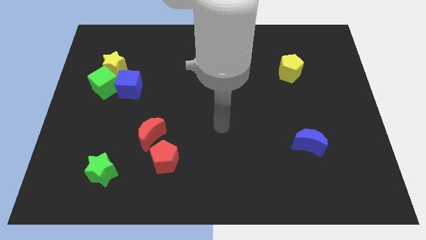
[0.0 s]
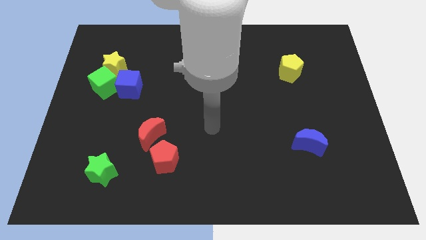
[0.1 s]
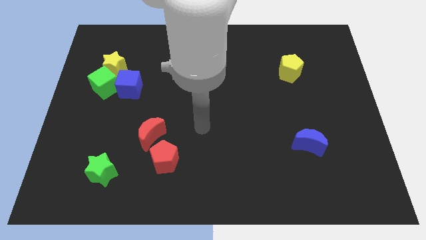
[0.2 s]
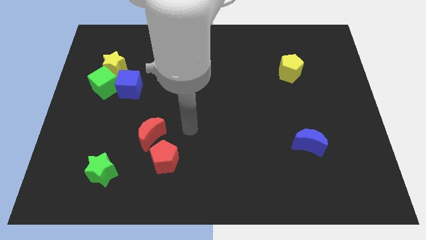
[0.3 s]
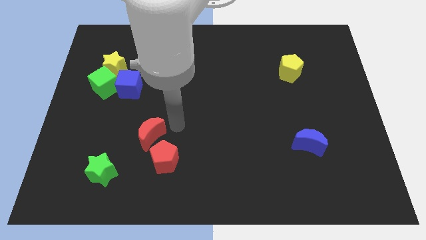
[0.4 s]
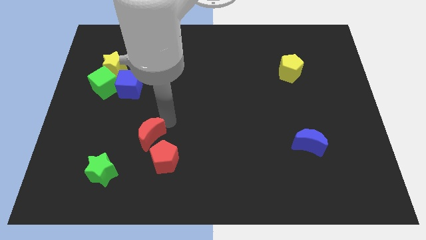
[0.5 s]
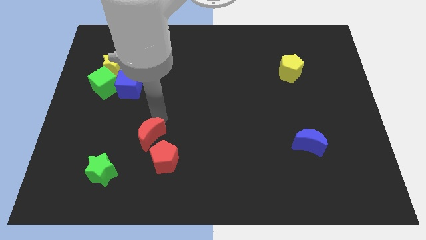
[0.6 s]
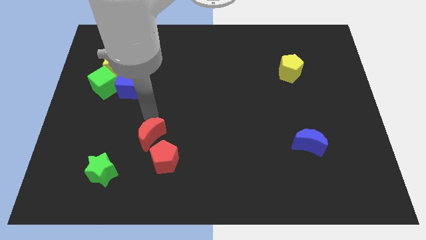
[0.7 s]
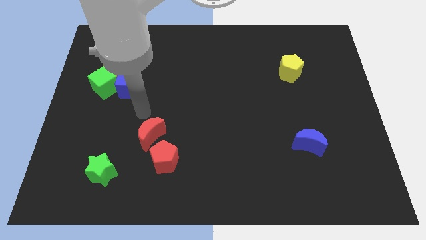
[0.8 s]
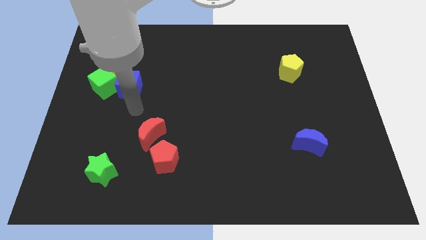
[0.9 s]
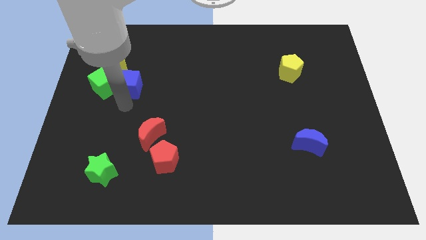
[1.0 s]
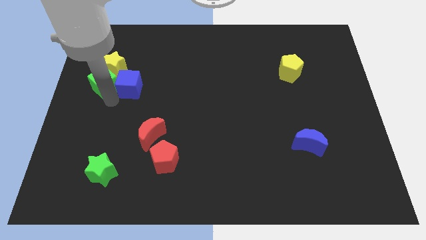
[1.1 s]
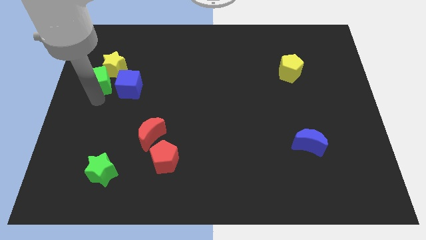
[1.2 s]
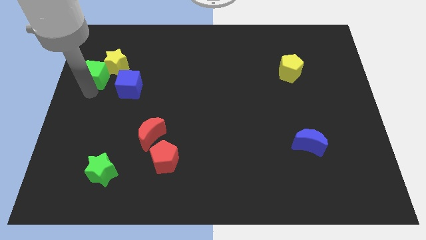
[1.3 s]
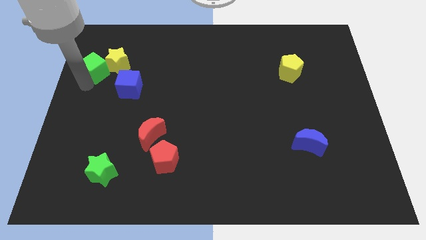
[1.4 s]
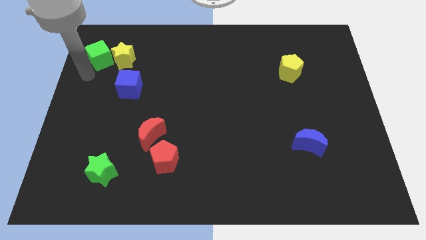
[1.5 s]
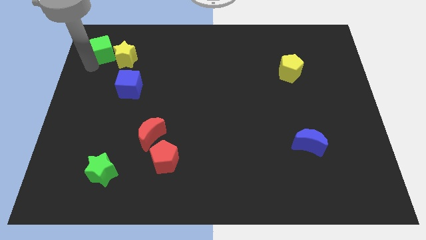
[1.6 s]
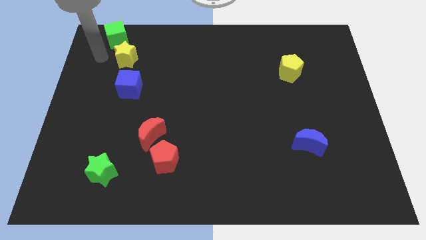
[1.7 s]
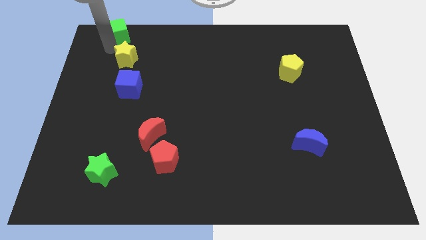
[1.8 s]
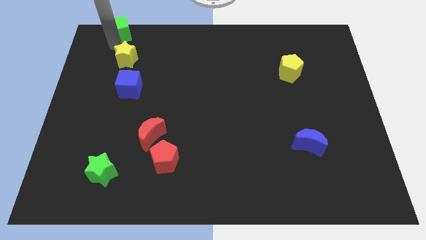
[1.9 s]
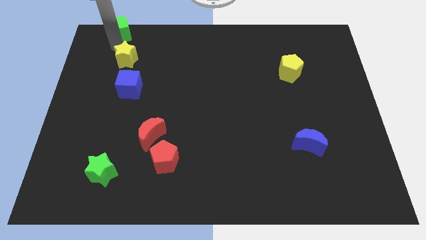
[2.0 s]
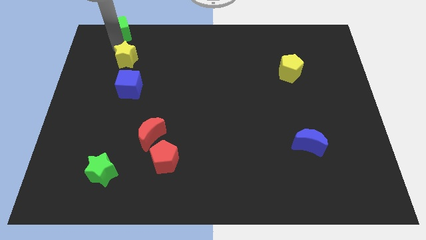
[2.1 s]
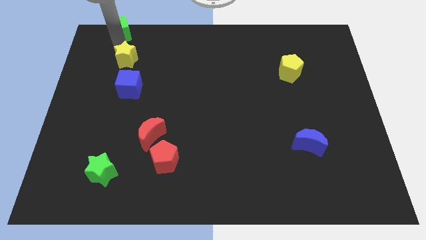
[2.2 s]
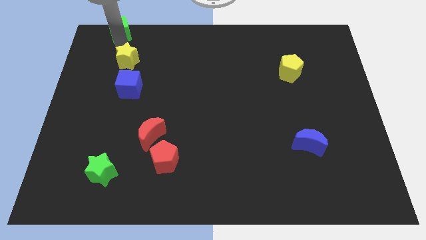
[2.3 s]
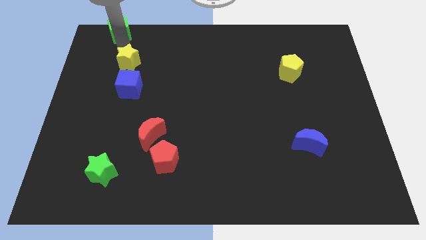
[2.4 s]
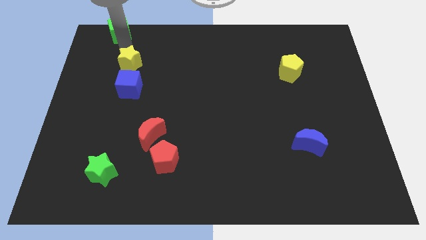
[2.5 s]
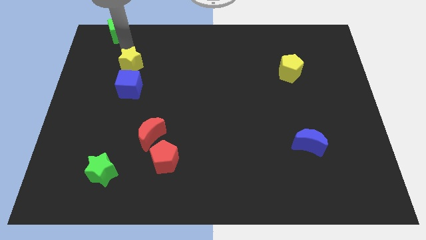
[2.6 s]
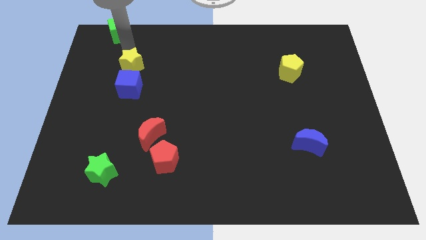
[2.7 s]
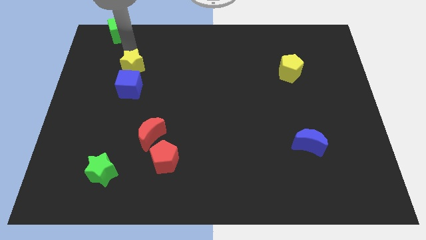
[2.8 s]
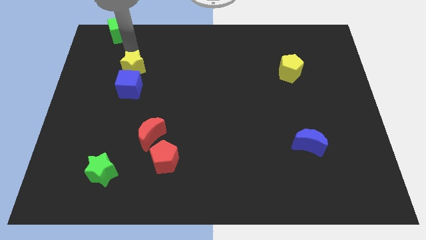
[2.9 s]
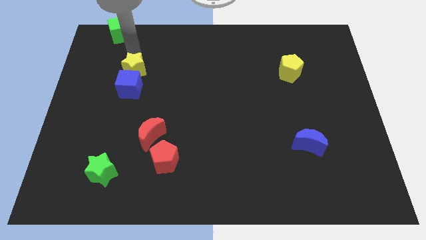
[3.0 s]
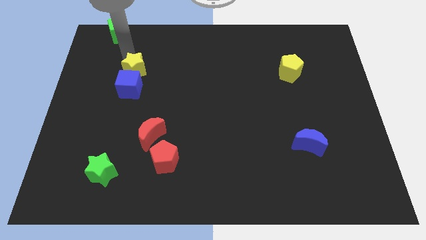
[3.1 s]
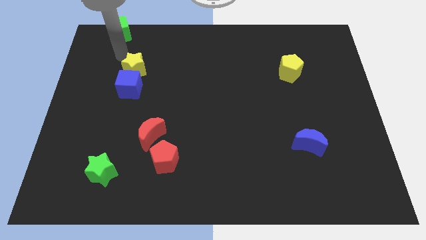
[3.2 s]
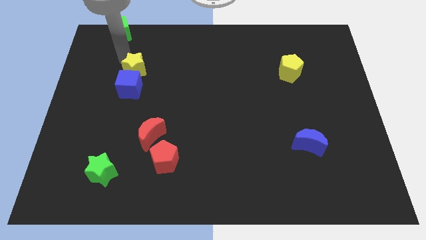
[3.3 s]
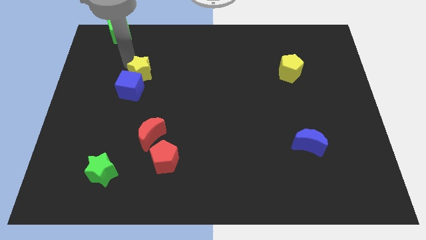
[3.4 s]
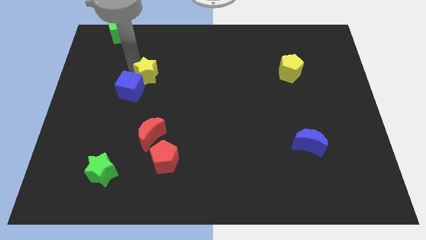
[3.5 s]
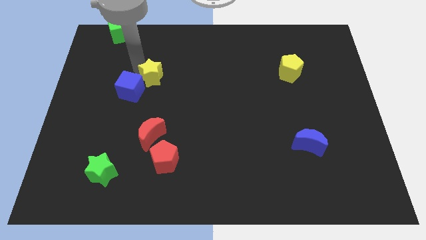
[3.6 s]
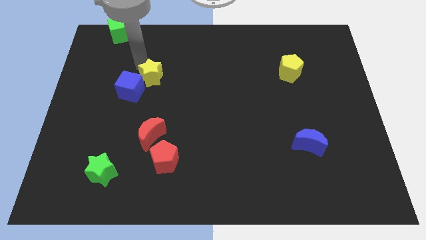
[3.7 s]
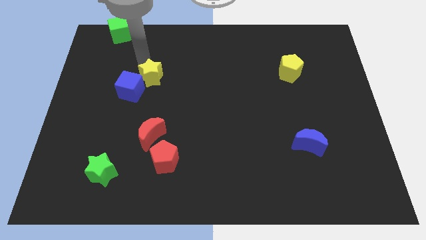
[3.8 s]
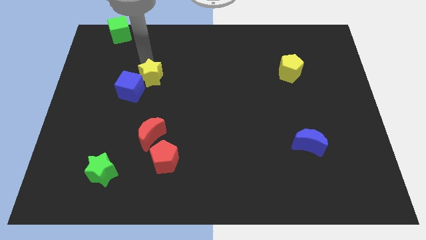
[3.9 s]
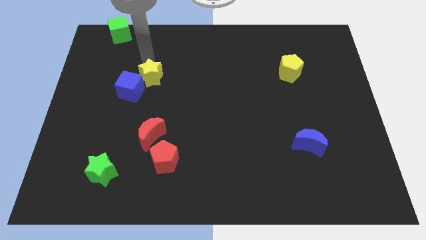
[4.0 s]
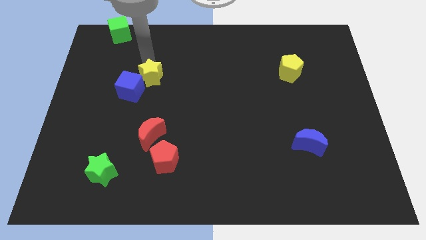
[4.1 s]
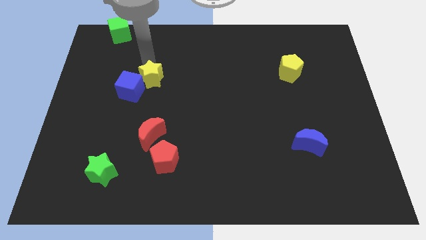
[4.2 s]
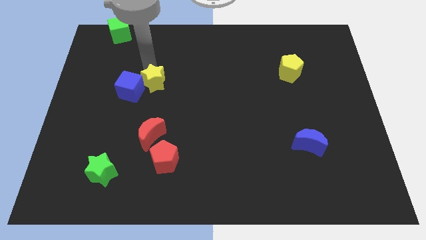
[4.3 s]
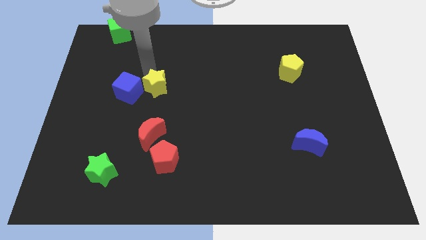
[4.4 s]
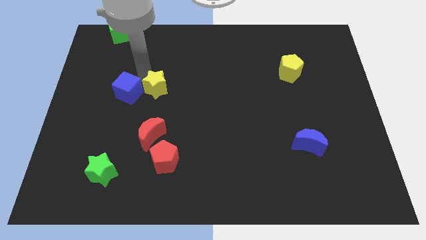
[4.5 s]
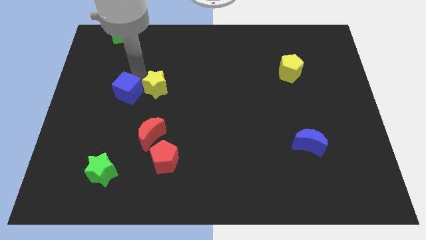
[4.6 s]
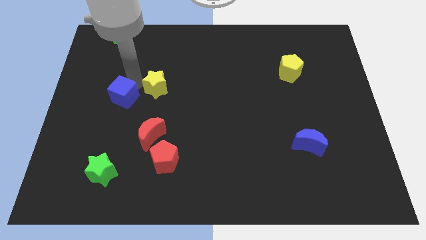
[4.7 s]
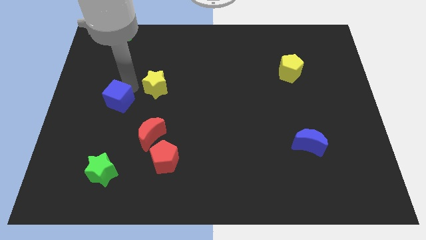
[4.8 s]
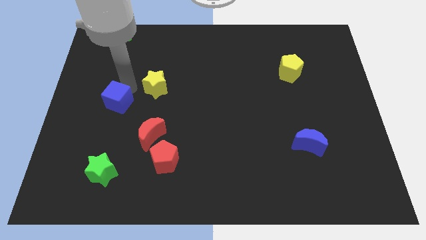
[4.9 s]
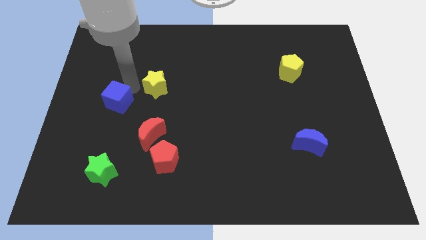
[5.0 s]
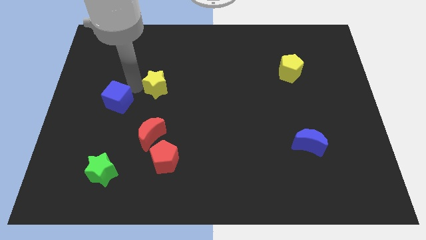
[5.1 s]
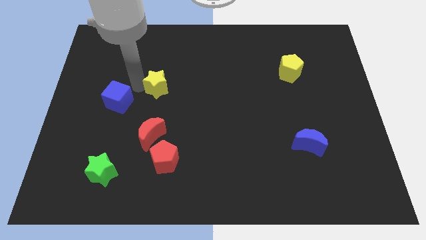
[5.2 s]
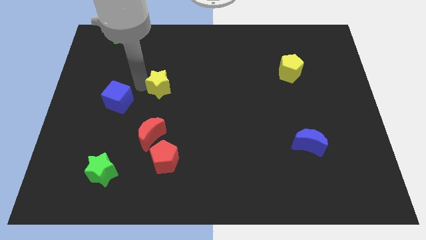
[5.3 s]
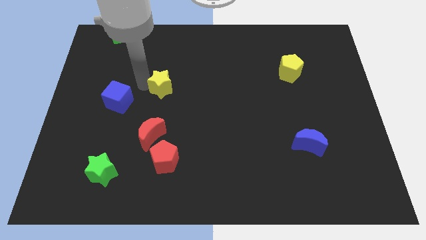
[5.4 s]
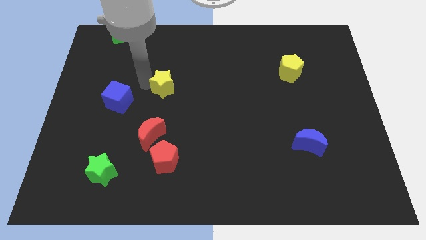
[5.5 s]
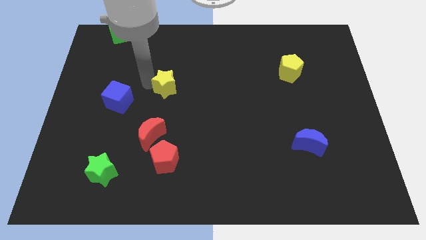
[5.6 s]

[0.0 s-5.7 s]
put the yellow star to the middle
